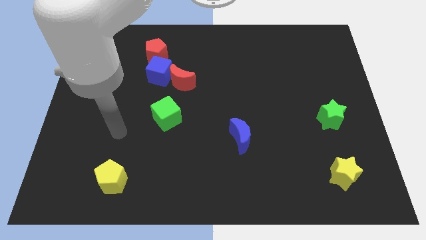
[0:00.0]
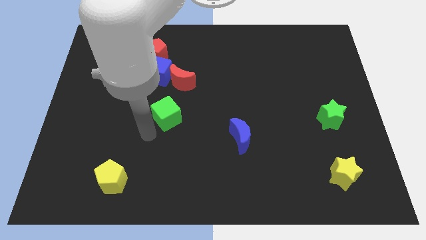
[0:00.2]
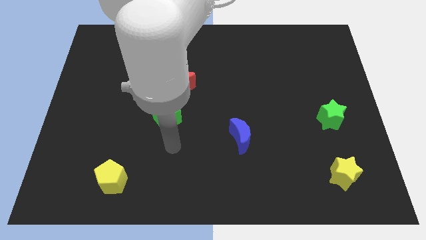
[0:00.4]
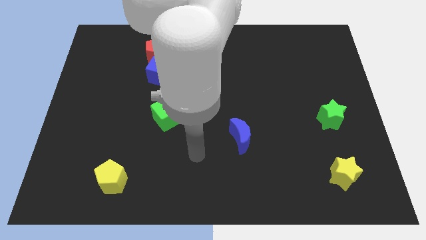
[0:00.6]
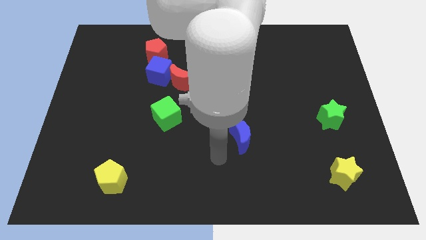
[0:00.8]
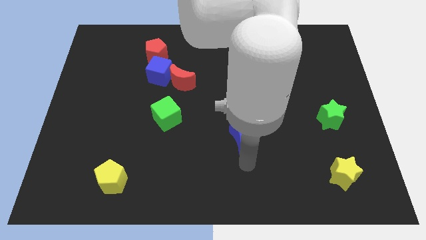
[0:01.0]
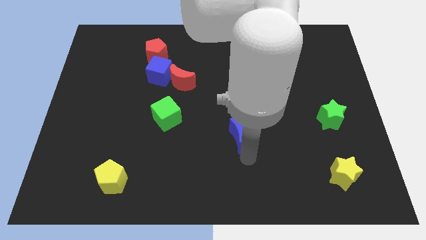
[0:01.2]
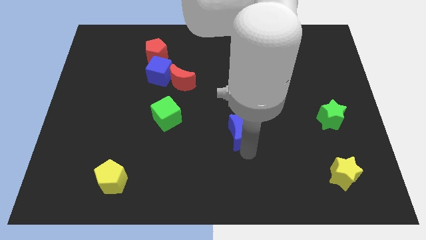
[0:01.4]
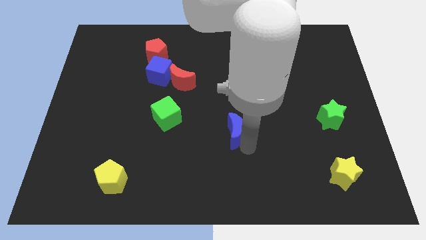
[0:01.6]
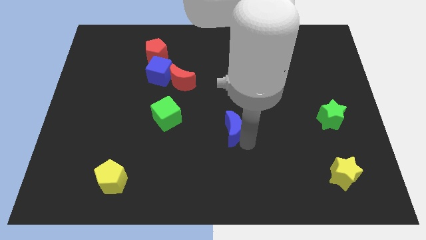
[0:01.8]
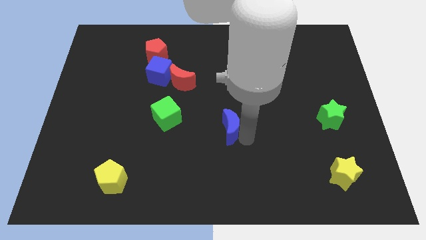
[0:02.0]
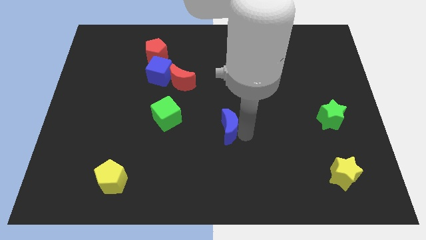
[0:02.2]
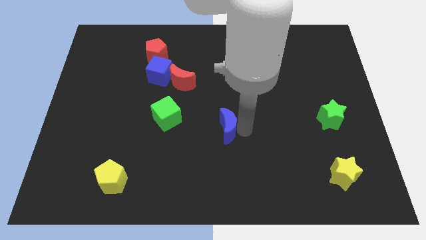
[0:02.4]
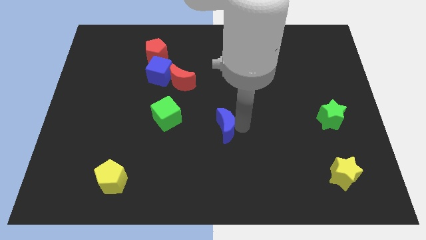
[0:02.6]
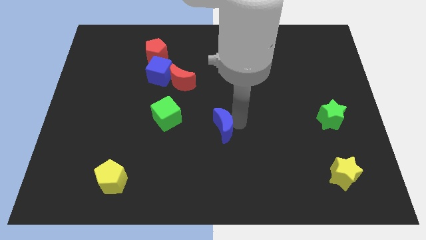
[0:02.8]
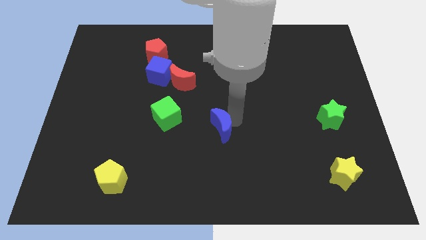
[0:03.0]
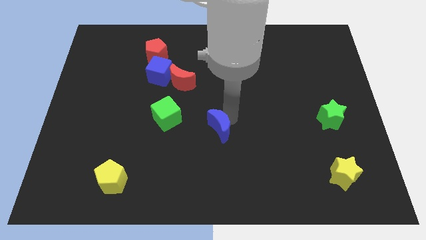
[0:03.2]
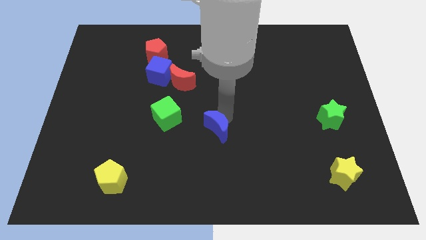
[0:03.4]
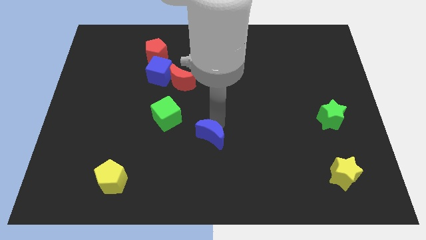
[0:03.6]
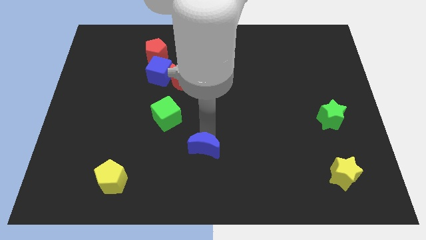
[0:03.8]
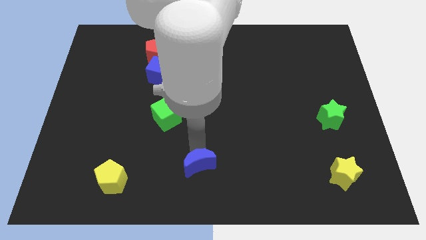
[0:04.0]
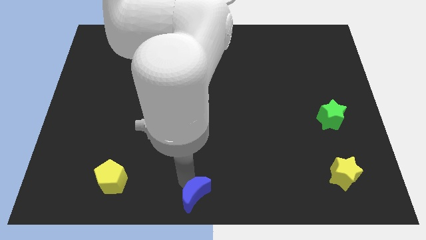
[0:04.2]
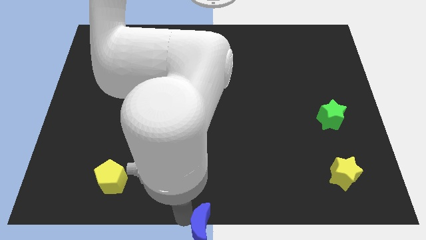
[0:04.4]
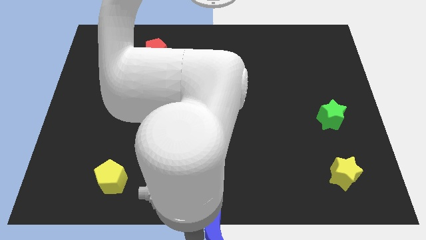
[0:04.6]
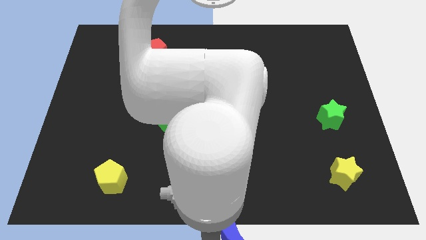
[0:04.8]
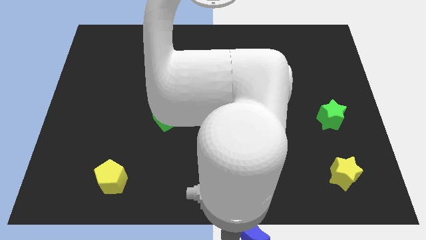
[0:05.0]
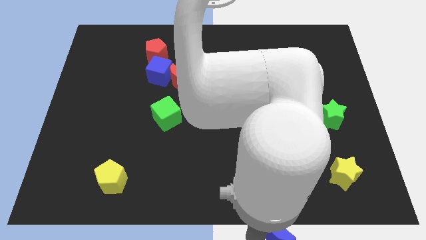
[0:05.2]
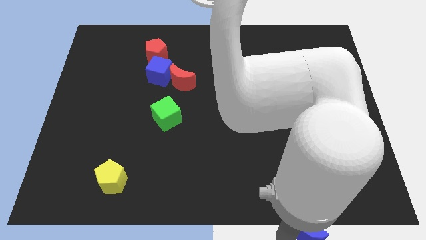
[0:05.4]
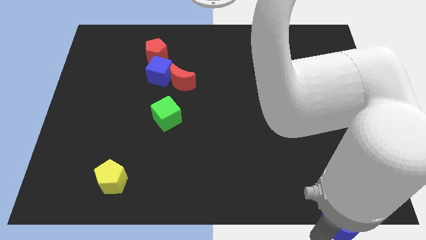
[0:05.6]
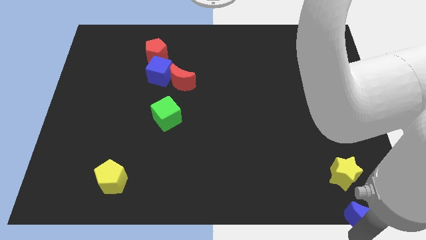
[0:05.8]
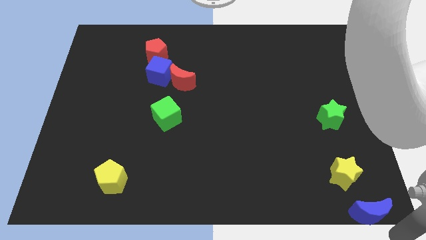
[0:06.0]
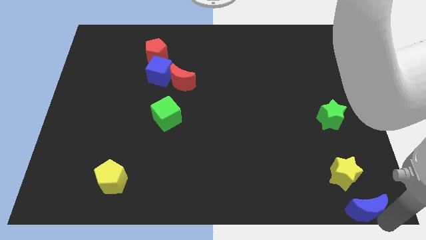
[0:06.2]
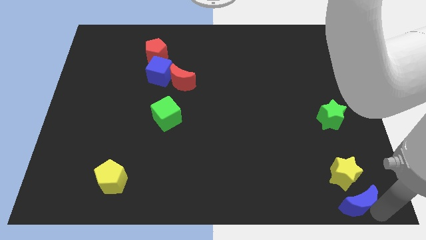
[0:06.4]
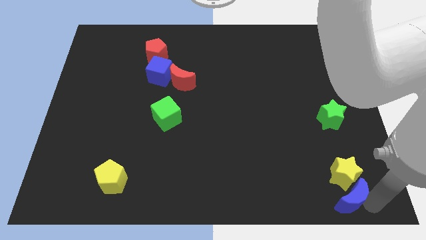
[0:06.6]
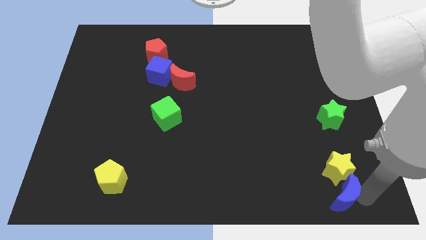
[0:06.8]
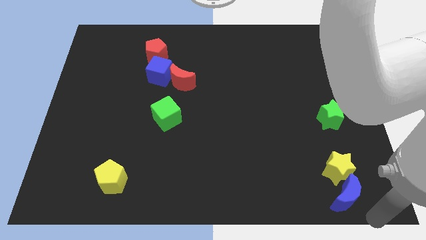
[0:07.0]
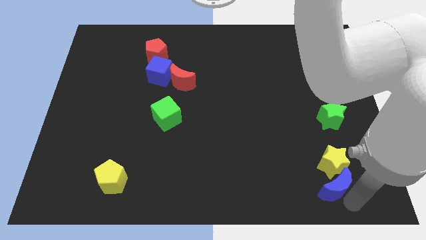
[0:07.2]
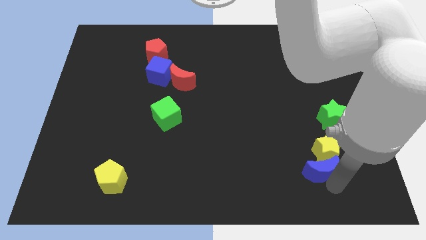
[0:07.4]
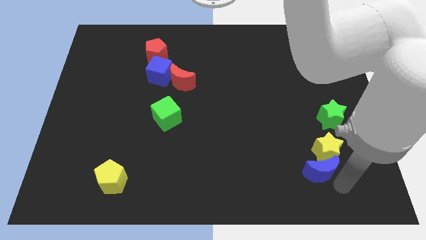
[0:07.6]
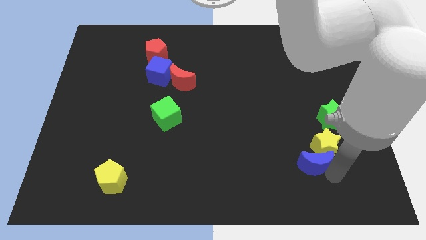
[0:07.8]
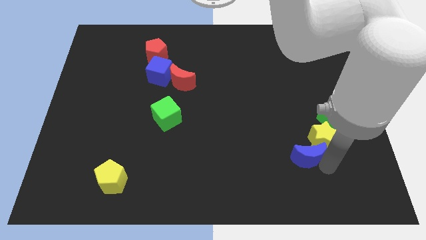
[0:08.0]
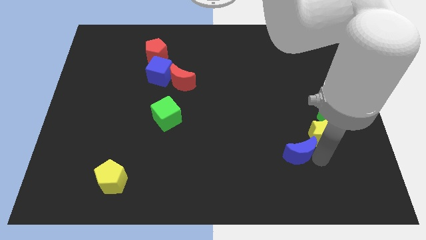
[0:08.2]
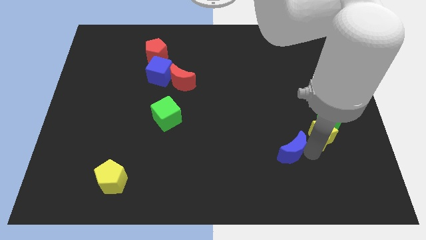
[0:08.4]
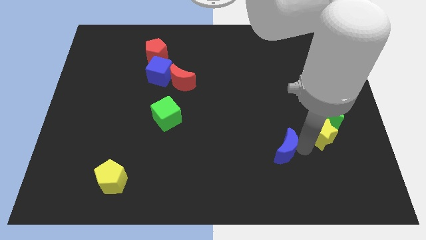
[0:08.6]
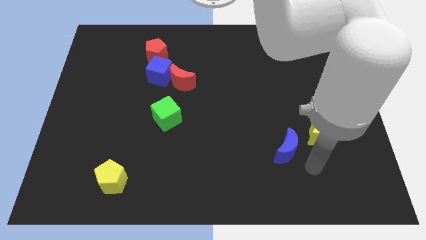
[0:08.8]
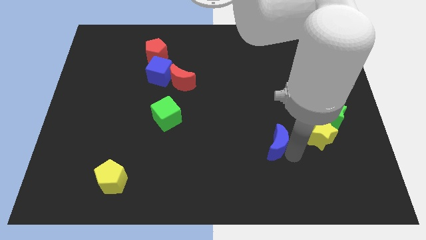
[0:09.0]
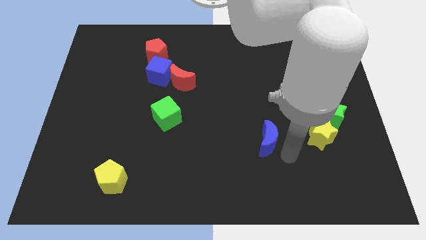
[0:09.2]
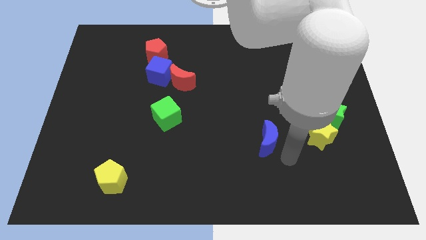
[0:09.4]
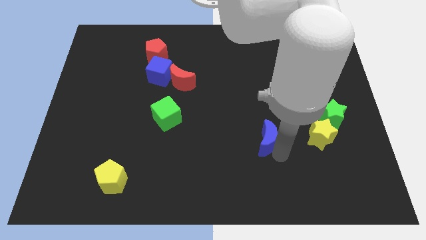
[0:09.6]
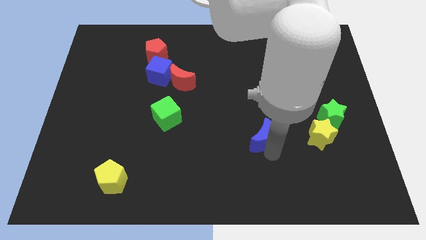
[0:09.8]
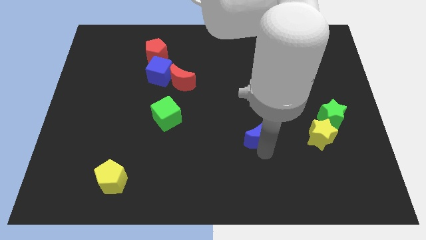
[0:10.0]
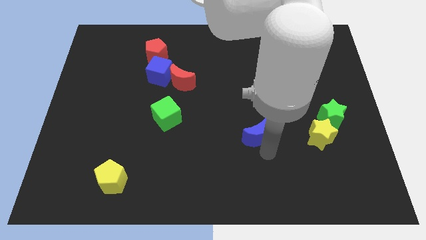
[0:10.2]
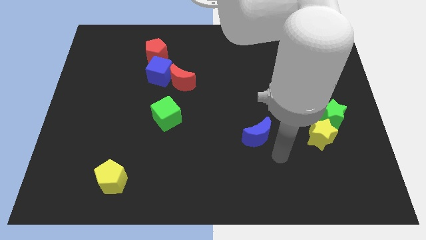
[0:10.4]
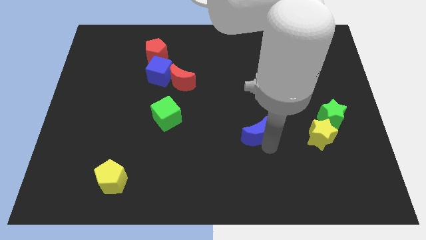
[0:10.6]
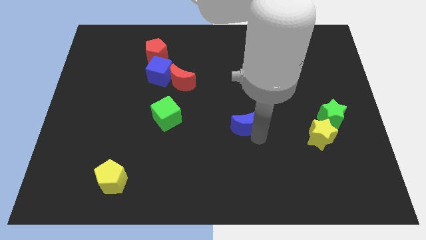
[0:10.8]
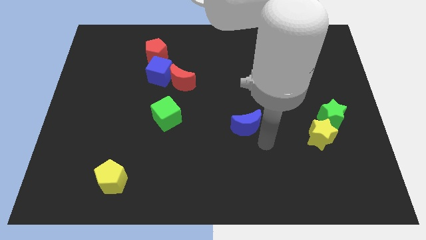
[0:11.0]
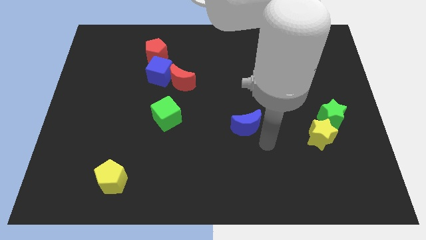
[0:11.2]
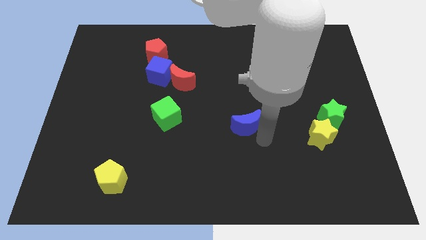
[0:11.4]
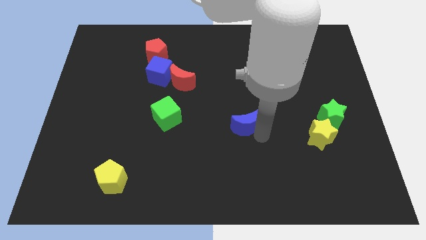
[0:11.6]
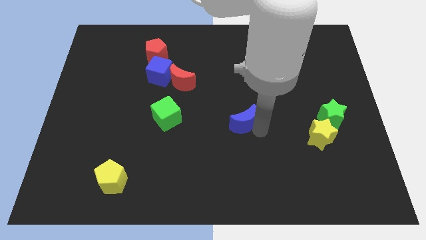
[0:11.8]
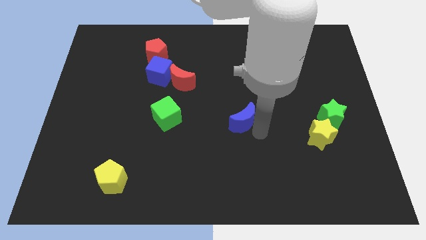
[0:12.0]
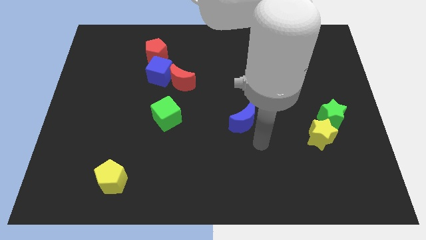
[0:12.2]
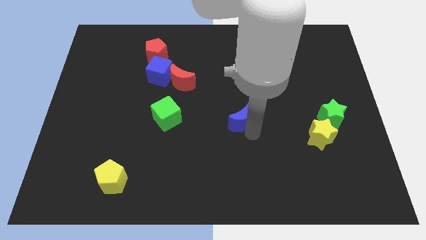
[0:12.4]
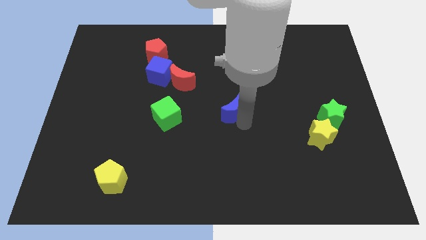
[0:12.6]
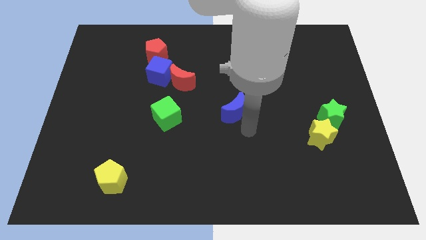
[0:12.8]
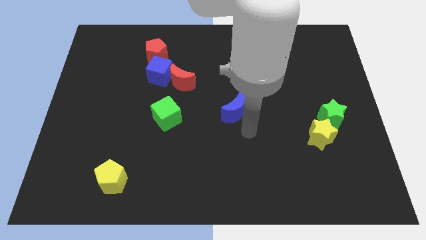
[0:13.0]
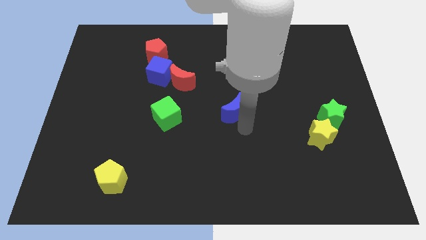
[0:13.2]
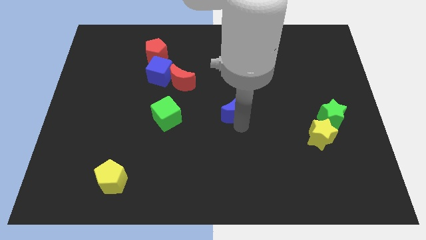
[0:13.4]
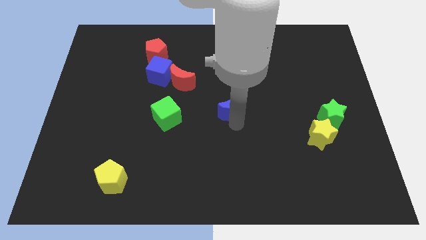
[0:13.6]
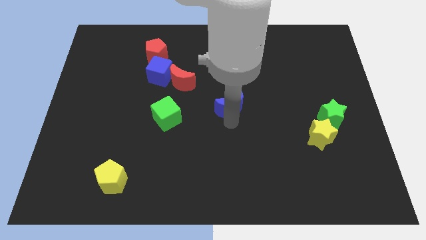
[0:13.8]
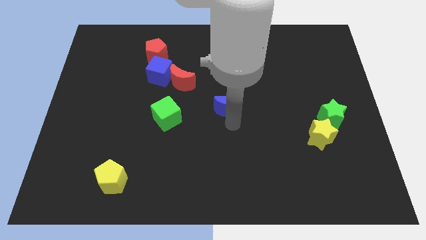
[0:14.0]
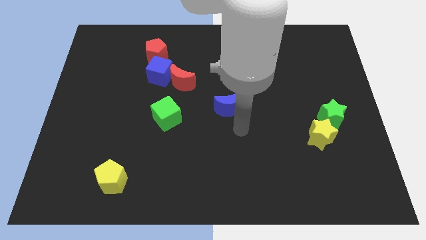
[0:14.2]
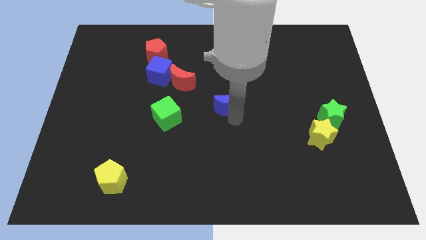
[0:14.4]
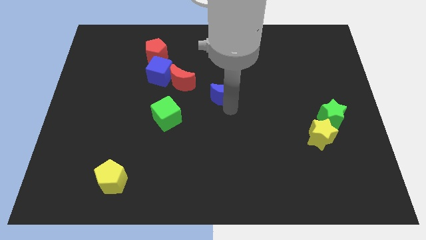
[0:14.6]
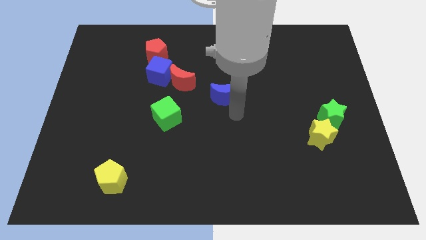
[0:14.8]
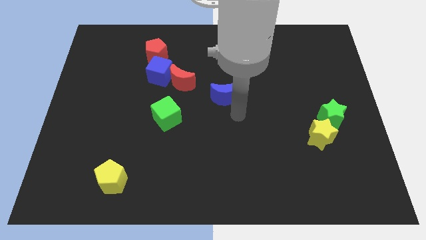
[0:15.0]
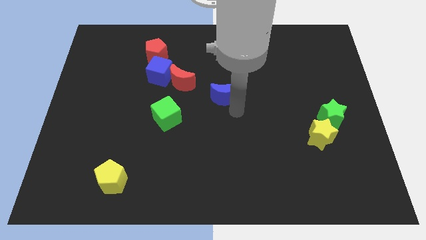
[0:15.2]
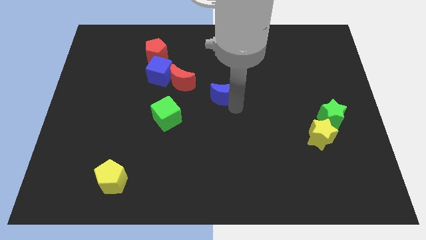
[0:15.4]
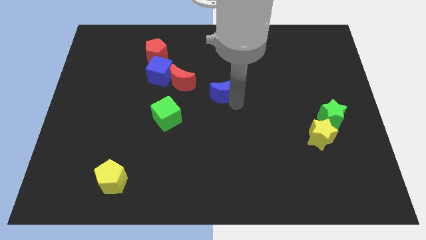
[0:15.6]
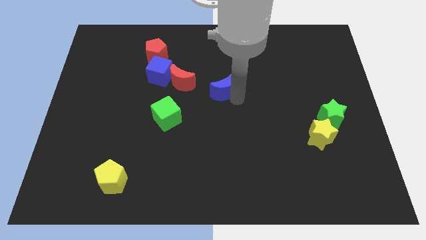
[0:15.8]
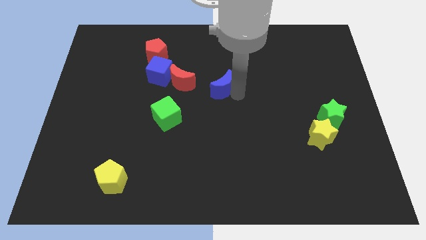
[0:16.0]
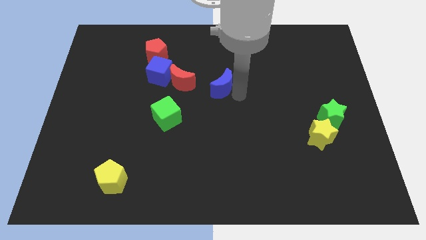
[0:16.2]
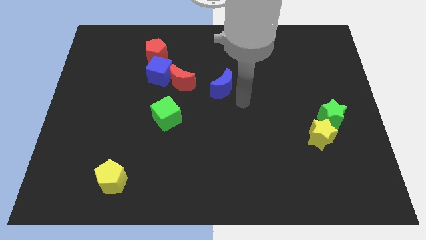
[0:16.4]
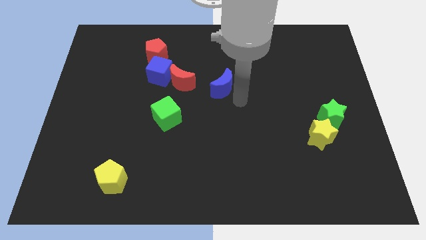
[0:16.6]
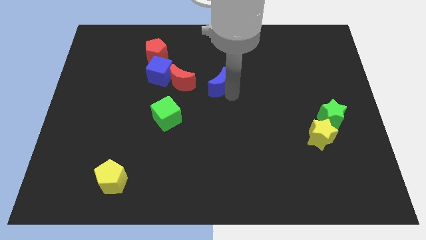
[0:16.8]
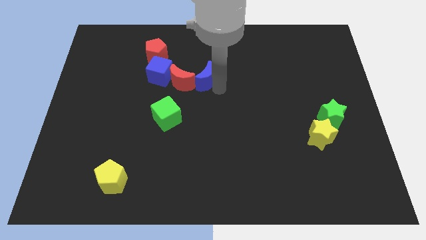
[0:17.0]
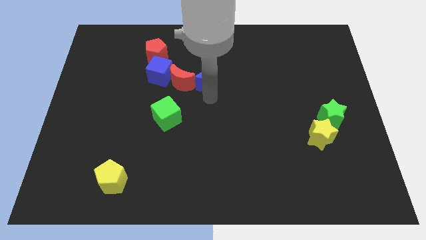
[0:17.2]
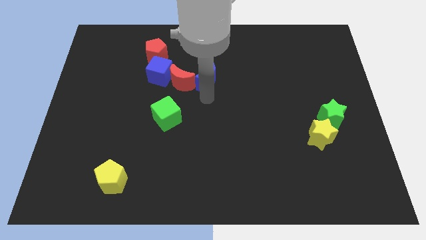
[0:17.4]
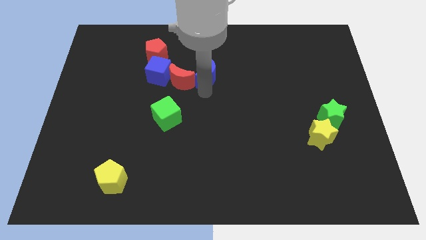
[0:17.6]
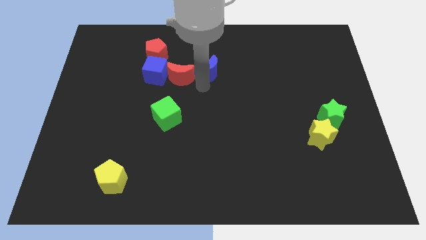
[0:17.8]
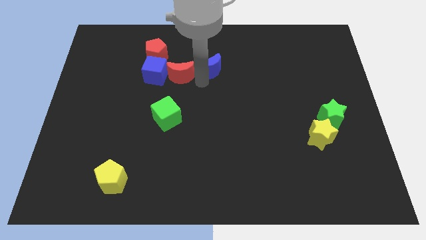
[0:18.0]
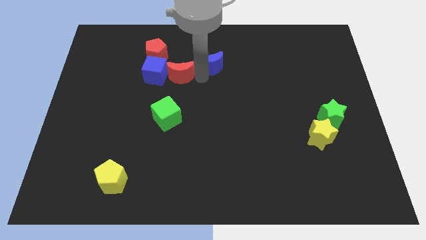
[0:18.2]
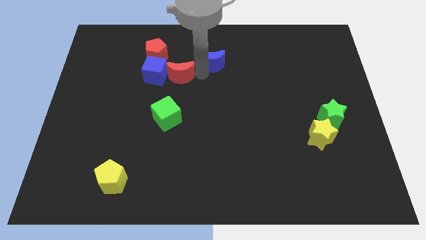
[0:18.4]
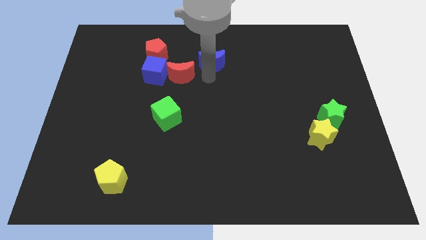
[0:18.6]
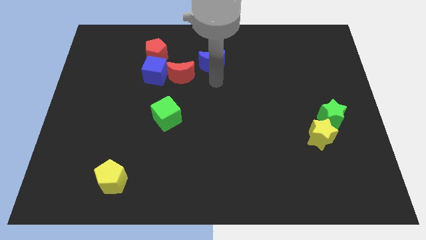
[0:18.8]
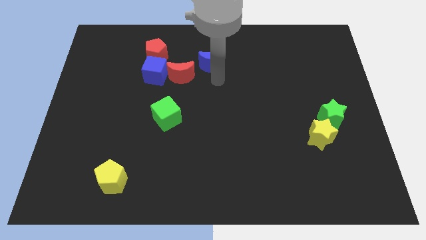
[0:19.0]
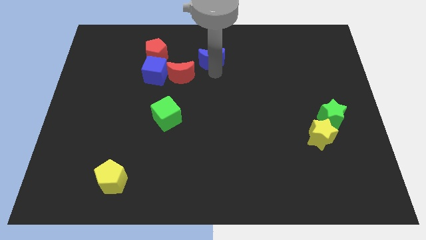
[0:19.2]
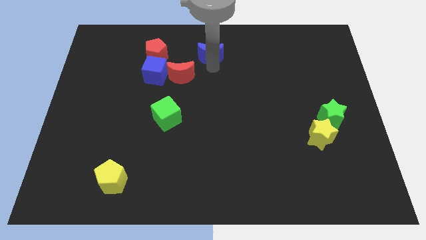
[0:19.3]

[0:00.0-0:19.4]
move the blue moon to the towards your base
